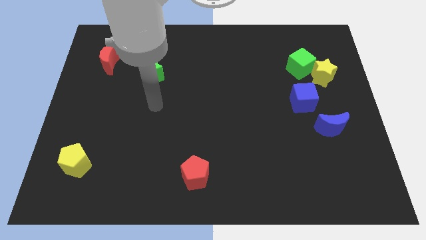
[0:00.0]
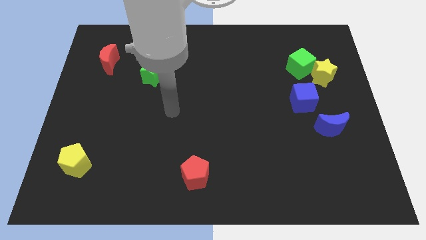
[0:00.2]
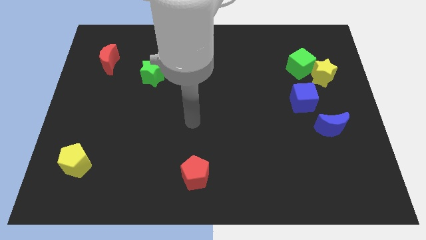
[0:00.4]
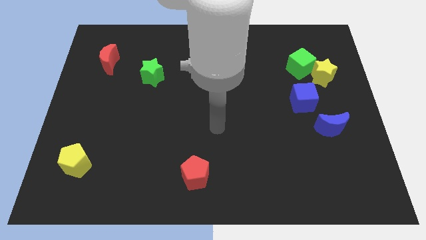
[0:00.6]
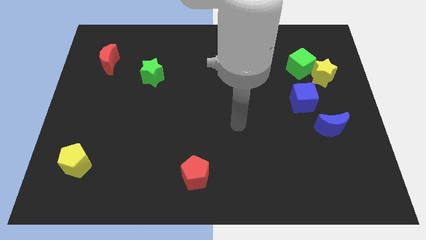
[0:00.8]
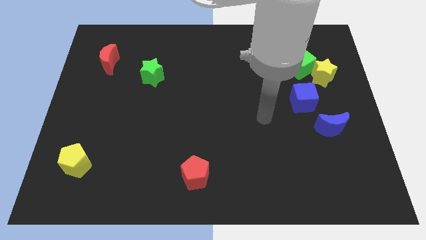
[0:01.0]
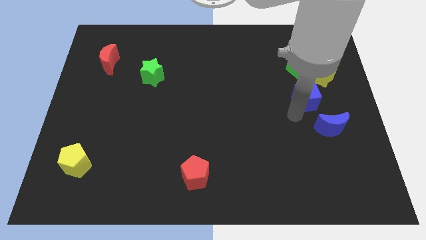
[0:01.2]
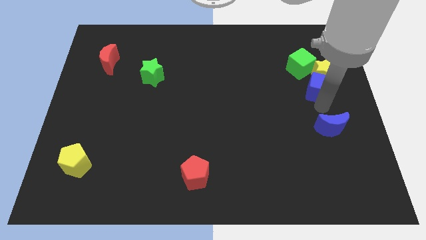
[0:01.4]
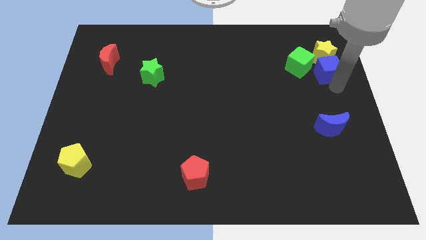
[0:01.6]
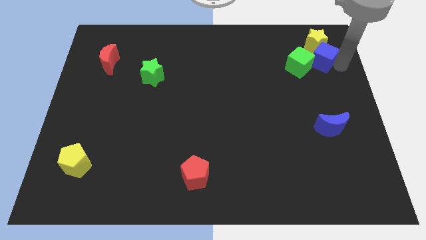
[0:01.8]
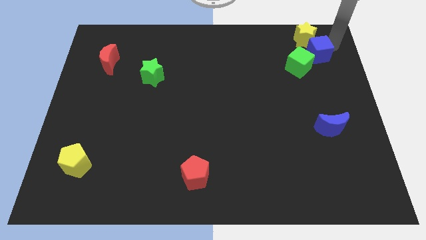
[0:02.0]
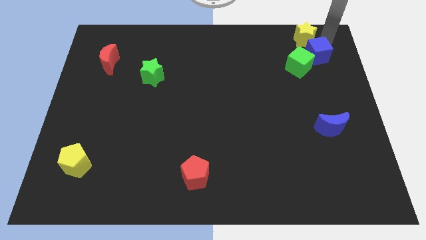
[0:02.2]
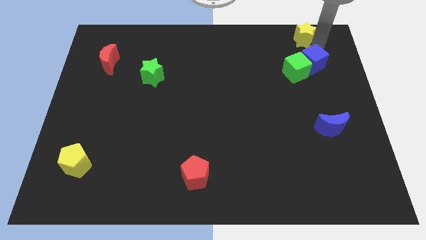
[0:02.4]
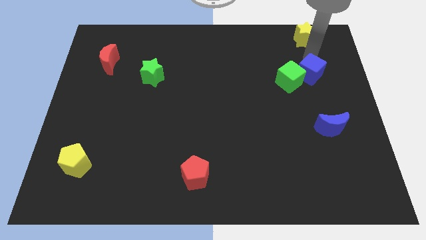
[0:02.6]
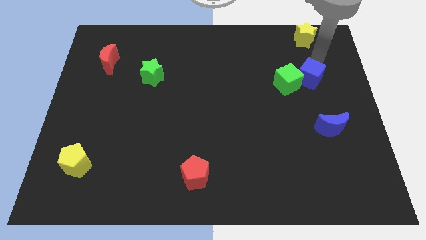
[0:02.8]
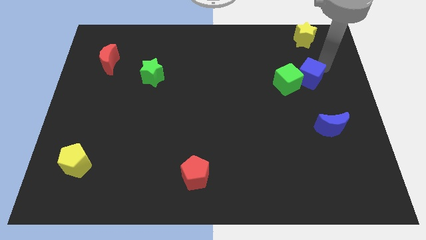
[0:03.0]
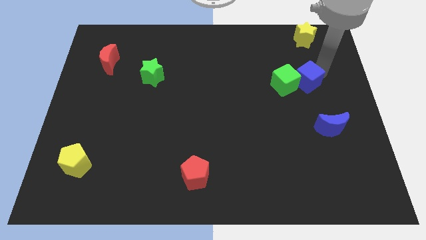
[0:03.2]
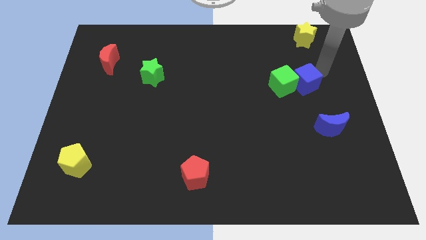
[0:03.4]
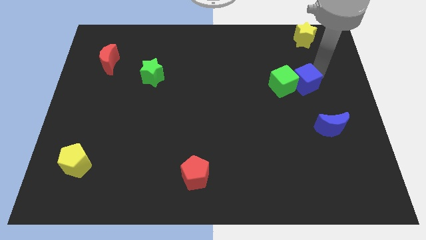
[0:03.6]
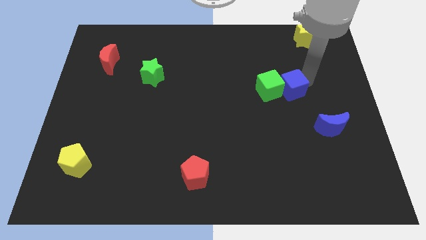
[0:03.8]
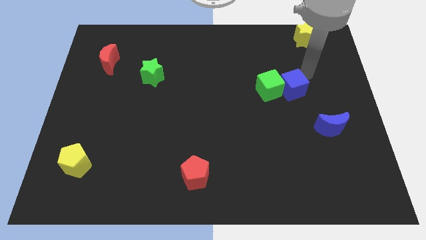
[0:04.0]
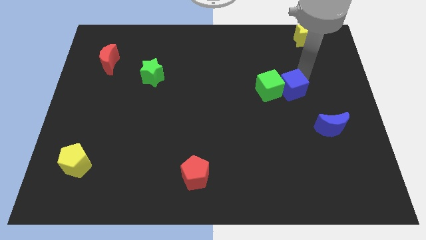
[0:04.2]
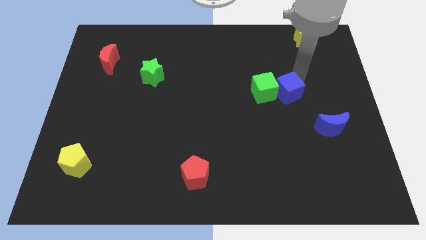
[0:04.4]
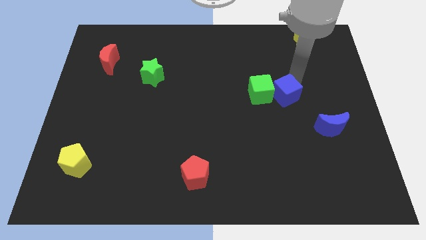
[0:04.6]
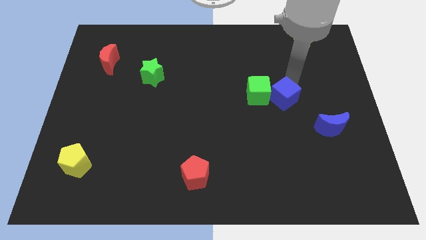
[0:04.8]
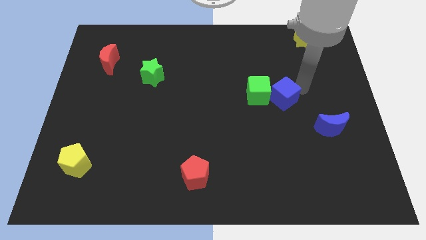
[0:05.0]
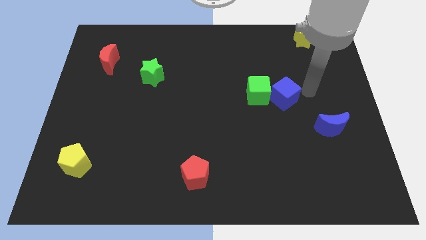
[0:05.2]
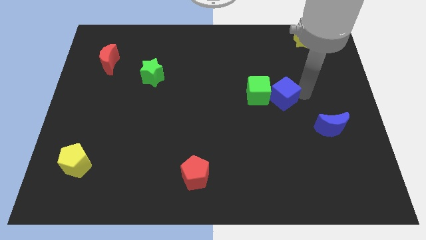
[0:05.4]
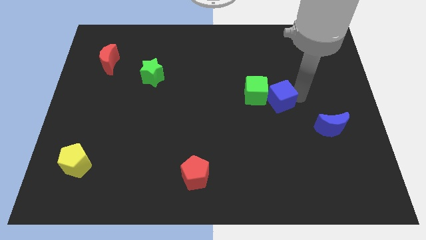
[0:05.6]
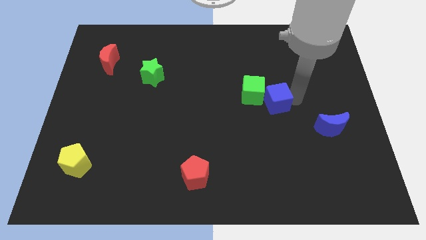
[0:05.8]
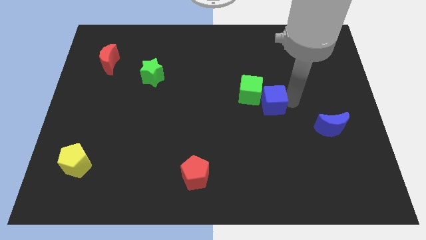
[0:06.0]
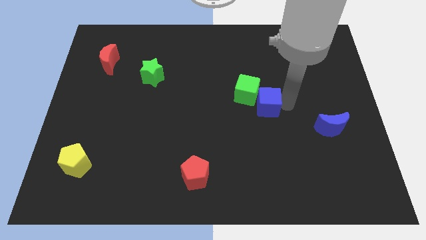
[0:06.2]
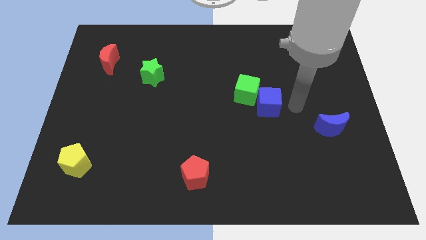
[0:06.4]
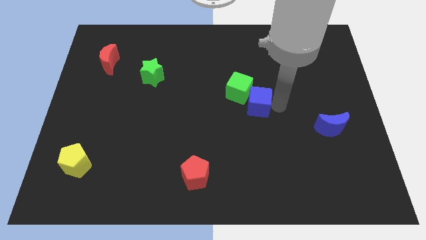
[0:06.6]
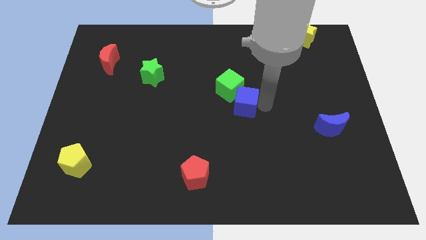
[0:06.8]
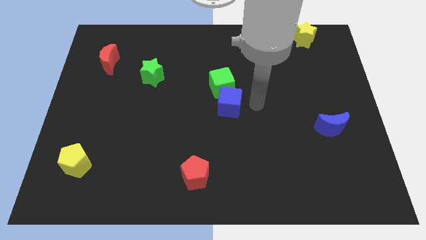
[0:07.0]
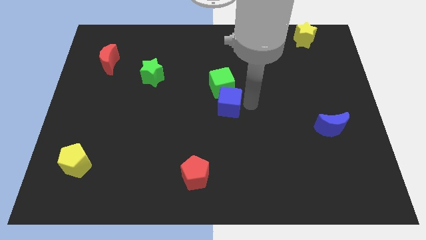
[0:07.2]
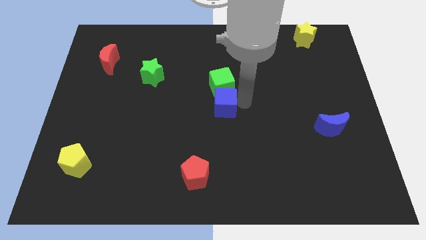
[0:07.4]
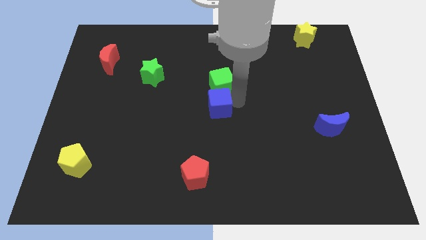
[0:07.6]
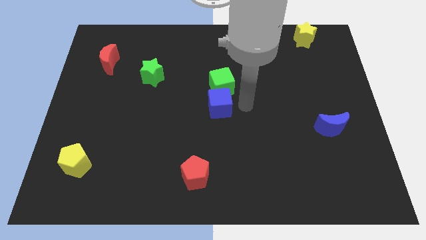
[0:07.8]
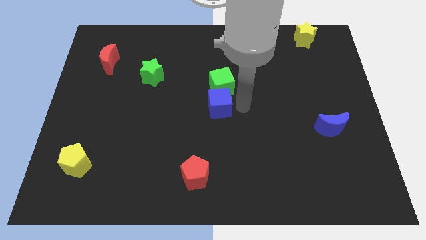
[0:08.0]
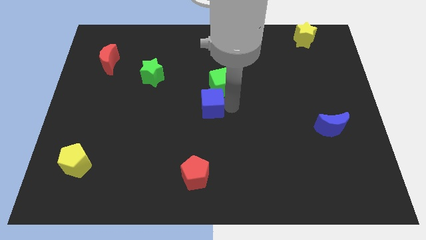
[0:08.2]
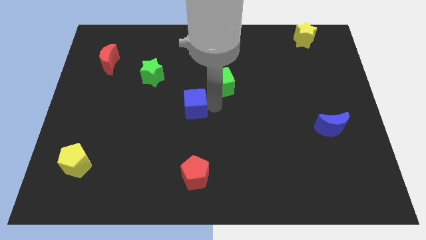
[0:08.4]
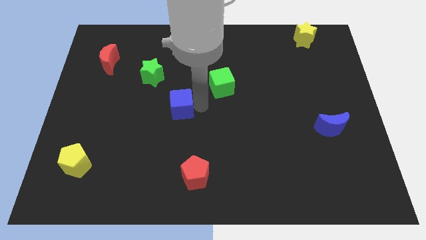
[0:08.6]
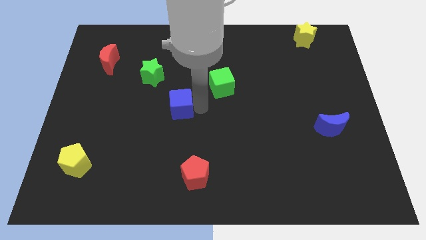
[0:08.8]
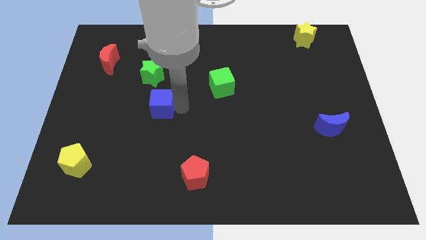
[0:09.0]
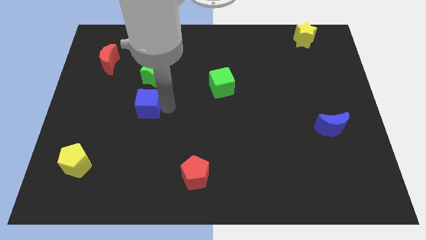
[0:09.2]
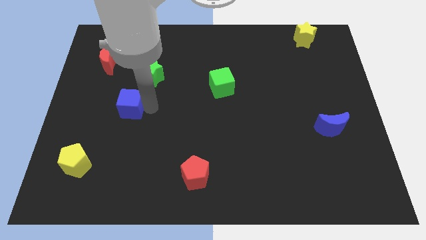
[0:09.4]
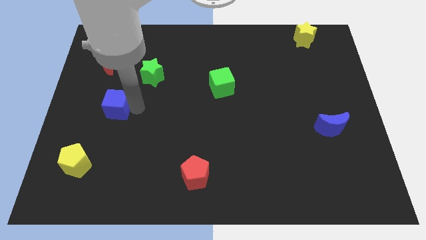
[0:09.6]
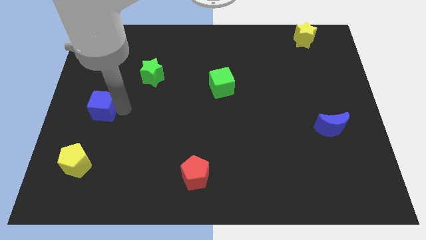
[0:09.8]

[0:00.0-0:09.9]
move the blue cube to the left side

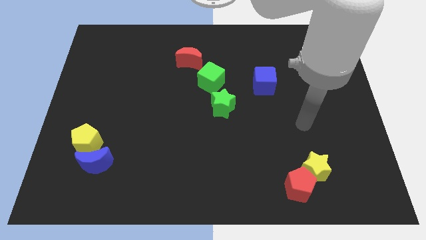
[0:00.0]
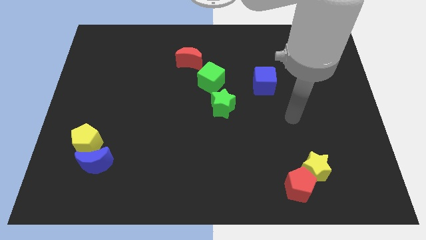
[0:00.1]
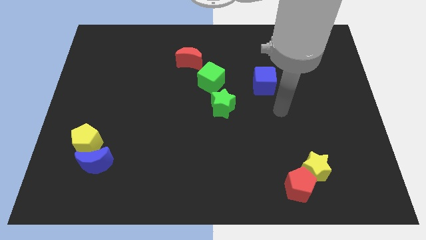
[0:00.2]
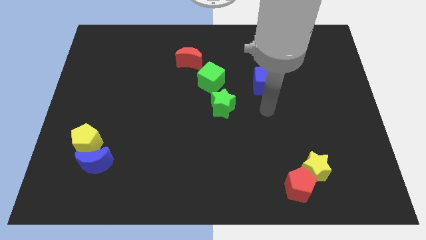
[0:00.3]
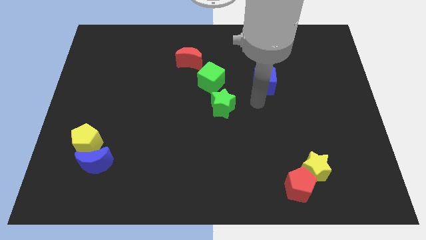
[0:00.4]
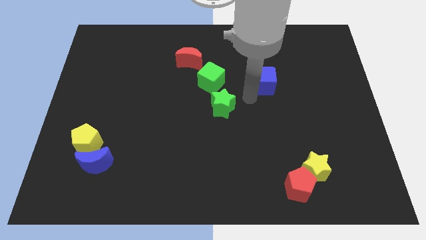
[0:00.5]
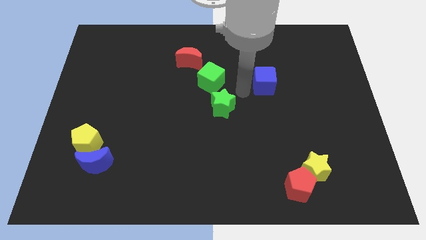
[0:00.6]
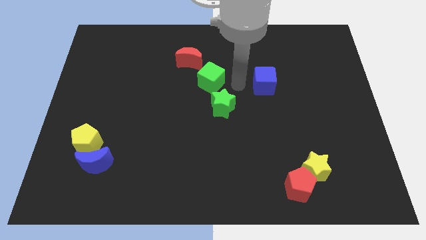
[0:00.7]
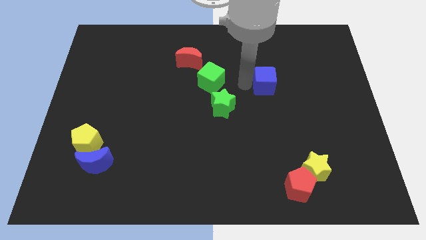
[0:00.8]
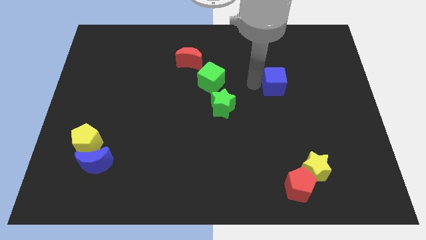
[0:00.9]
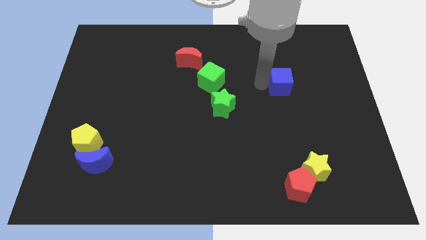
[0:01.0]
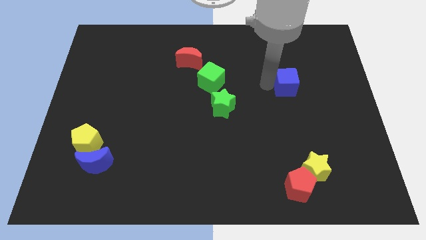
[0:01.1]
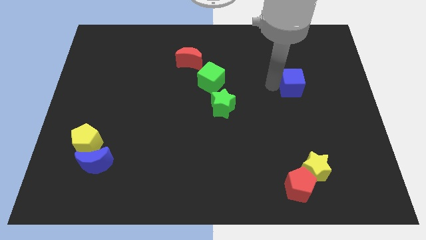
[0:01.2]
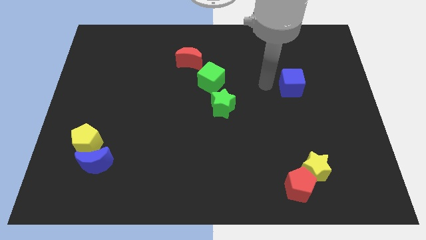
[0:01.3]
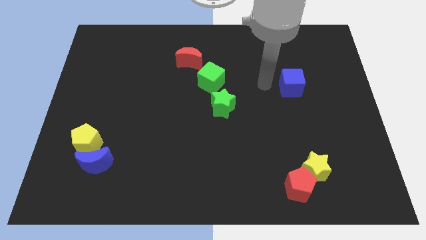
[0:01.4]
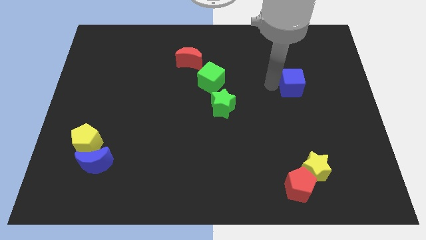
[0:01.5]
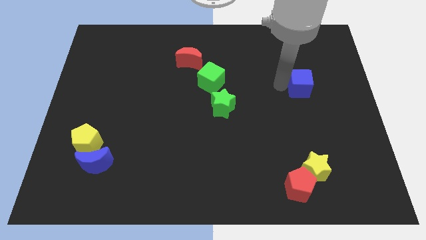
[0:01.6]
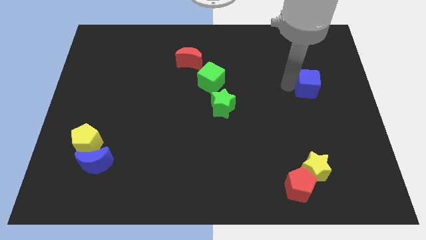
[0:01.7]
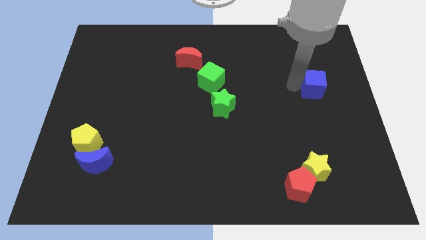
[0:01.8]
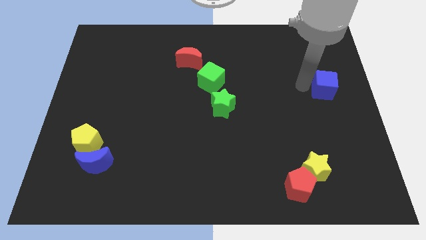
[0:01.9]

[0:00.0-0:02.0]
put the blue cube to the right side of the board
